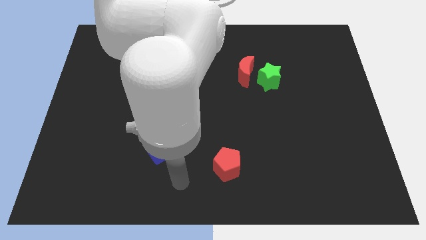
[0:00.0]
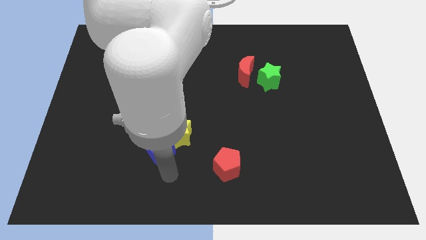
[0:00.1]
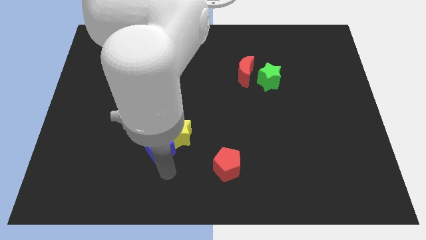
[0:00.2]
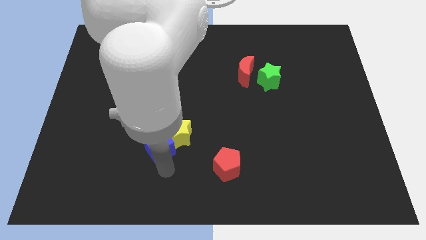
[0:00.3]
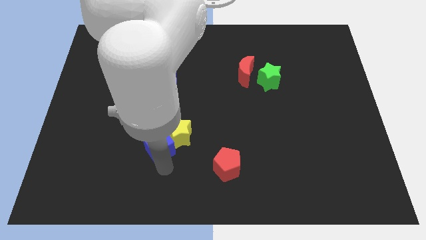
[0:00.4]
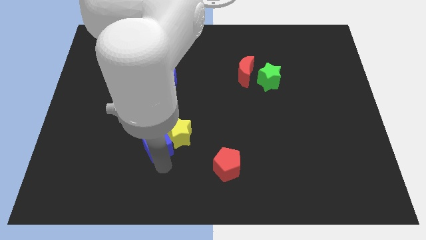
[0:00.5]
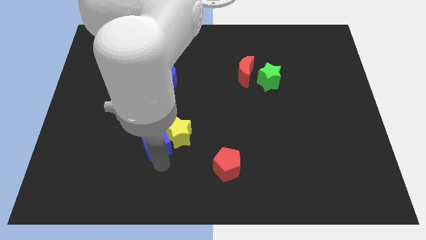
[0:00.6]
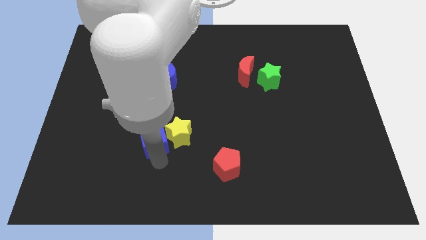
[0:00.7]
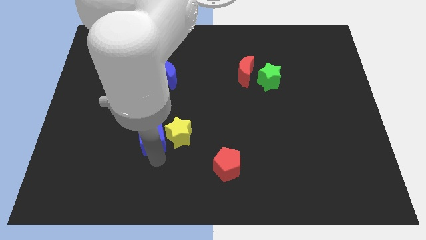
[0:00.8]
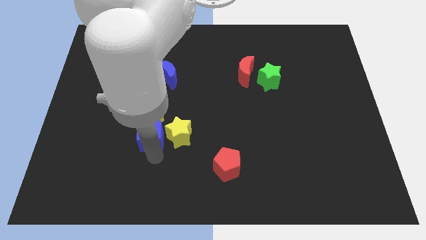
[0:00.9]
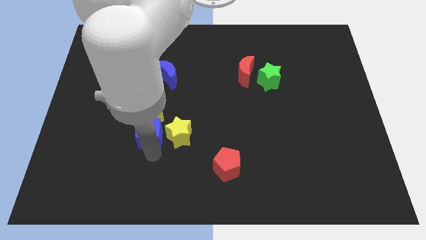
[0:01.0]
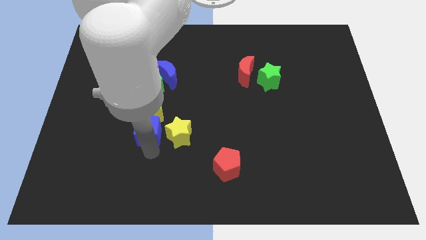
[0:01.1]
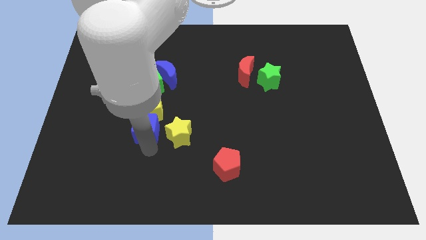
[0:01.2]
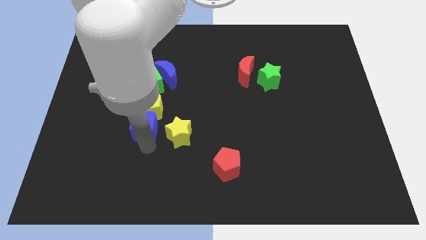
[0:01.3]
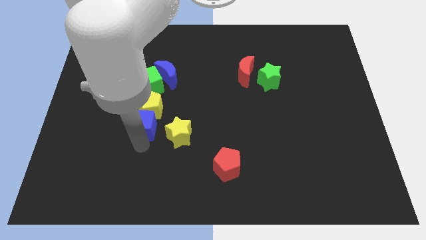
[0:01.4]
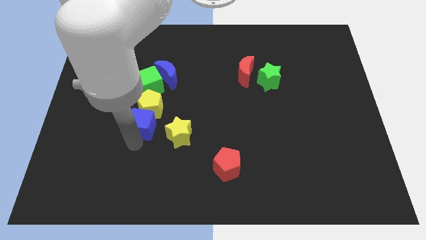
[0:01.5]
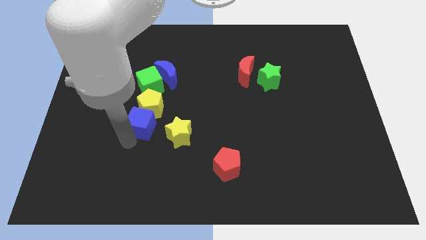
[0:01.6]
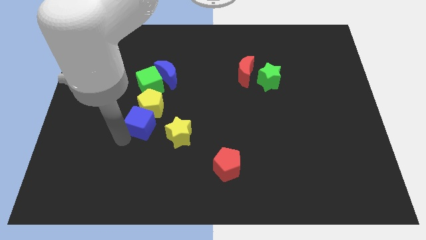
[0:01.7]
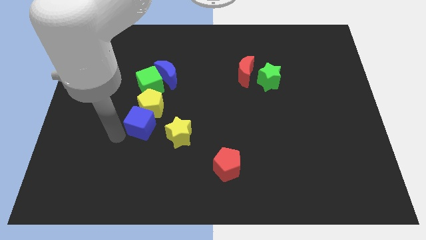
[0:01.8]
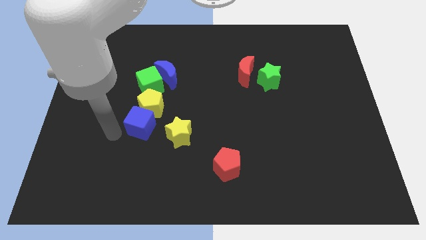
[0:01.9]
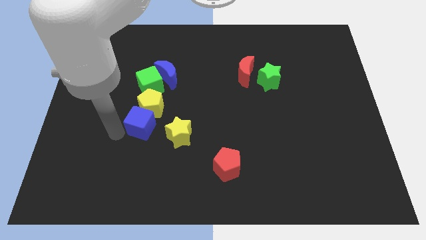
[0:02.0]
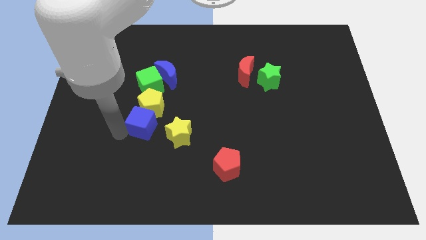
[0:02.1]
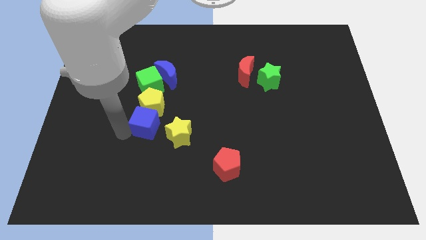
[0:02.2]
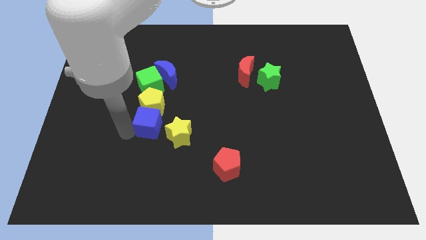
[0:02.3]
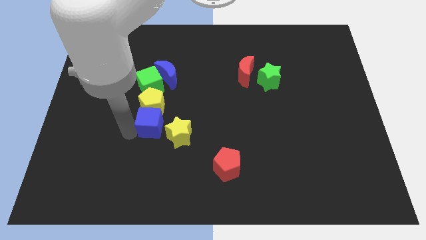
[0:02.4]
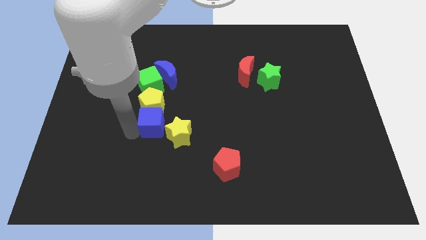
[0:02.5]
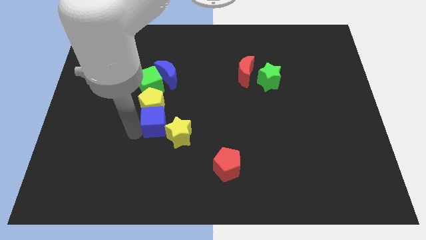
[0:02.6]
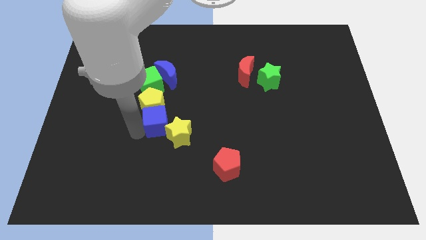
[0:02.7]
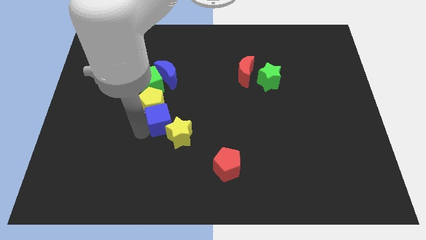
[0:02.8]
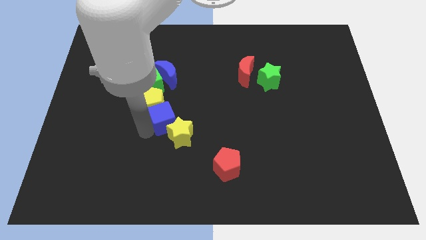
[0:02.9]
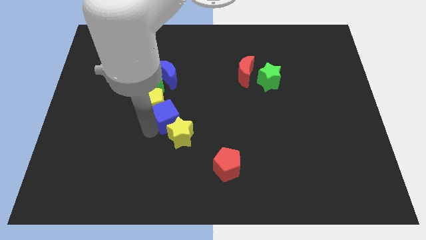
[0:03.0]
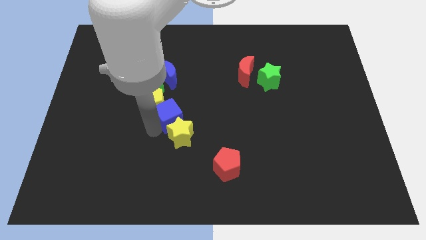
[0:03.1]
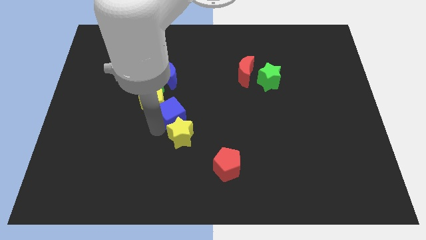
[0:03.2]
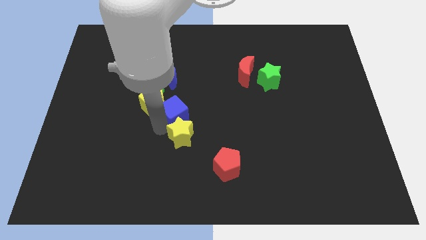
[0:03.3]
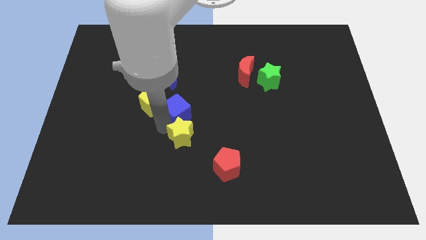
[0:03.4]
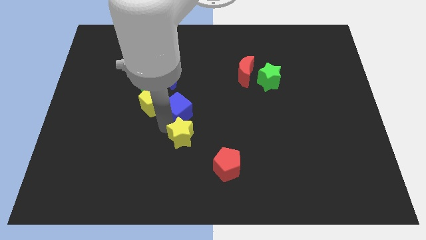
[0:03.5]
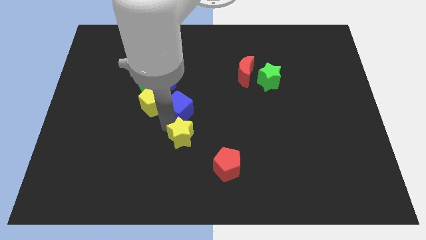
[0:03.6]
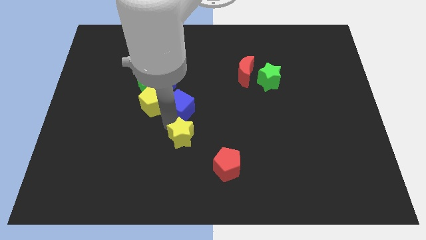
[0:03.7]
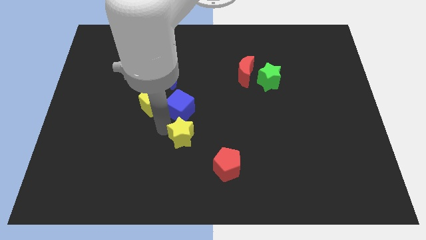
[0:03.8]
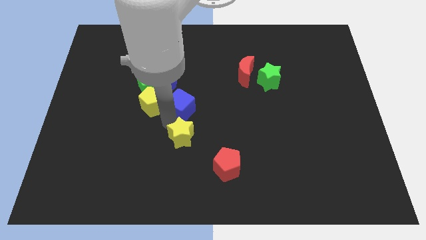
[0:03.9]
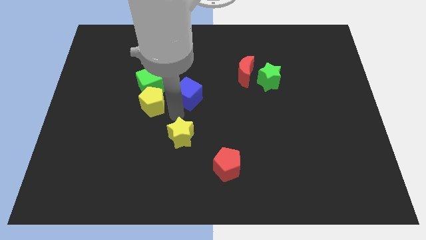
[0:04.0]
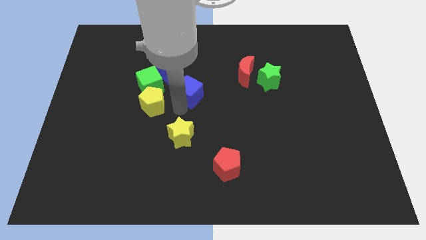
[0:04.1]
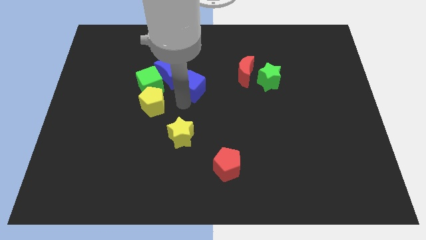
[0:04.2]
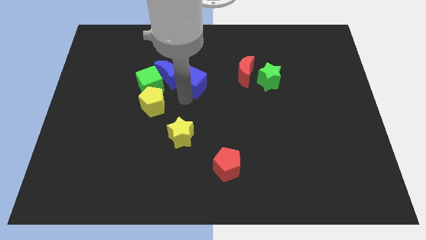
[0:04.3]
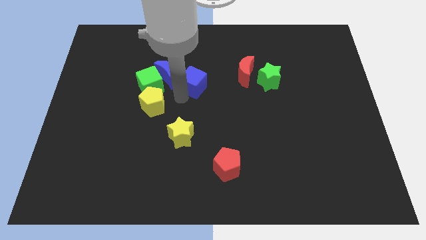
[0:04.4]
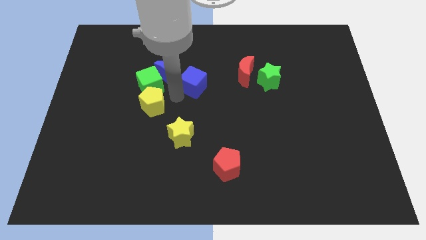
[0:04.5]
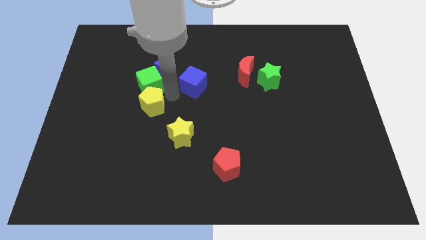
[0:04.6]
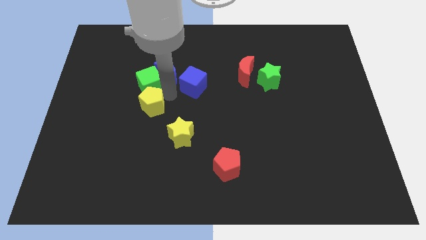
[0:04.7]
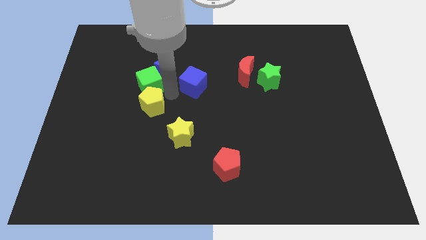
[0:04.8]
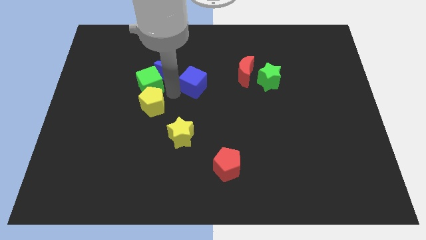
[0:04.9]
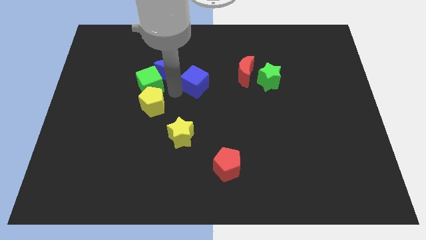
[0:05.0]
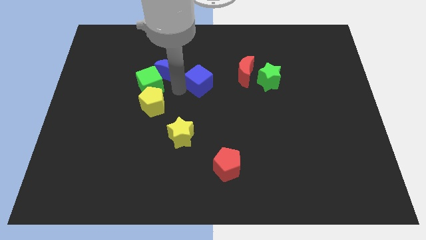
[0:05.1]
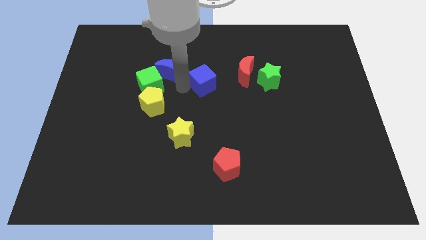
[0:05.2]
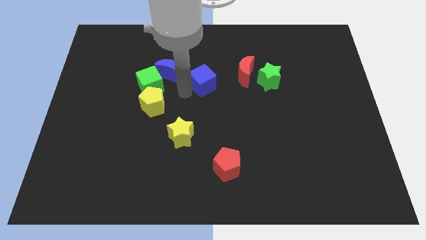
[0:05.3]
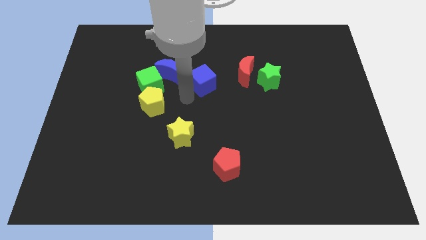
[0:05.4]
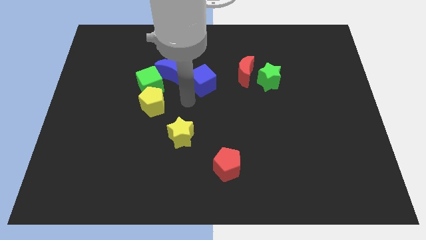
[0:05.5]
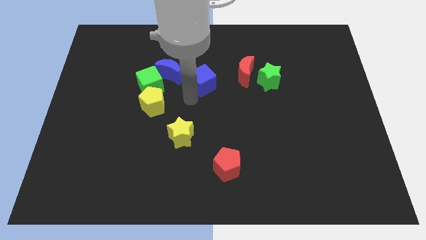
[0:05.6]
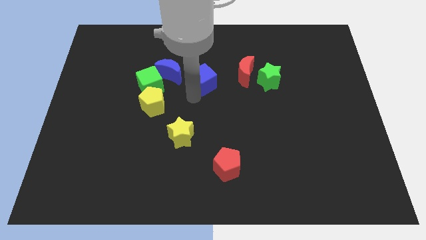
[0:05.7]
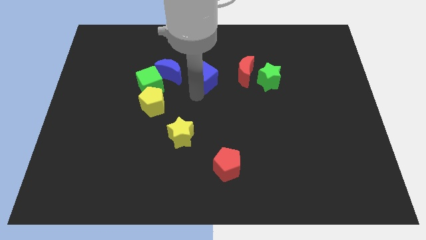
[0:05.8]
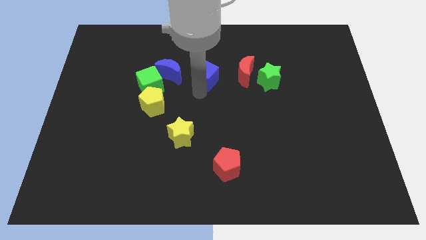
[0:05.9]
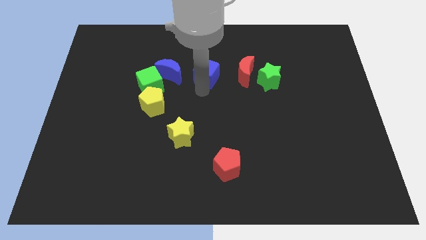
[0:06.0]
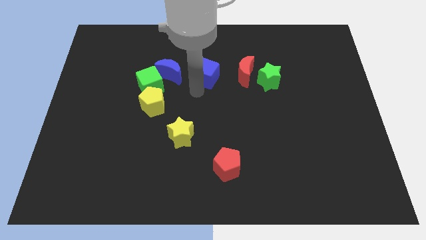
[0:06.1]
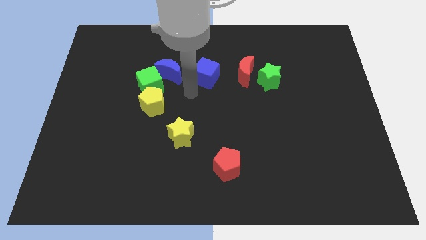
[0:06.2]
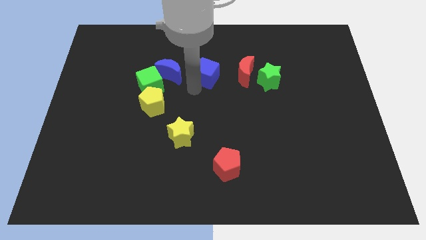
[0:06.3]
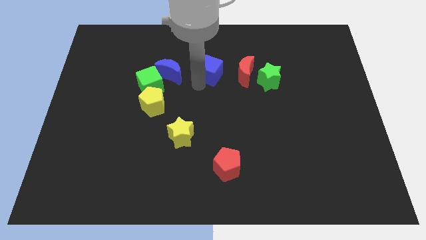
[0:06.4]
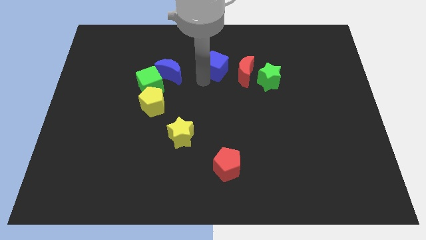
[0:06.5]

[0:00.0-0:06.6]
move the blue cube to the top left of the red moon

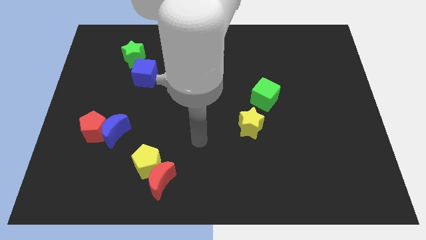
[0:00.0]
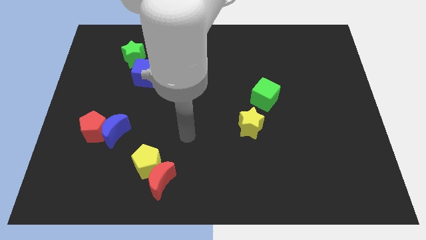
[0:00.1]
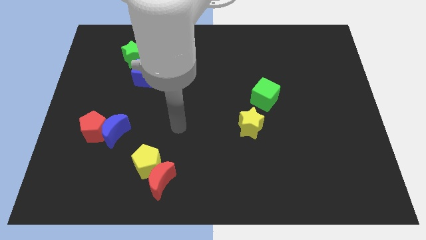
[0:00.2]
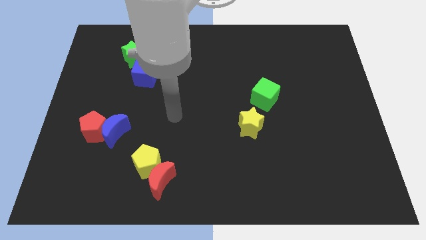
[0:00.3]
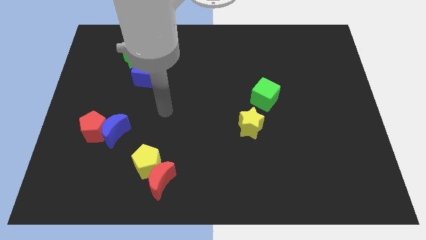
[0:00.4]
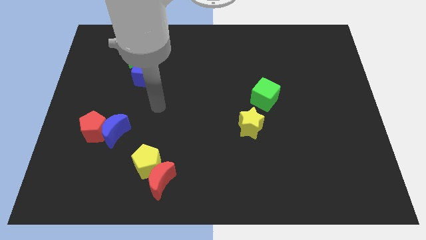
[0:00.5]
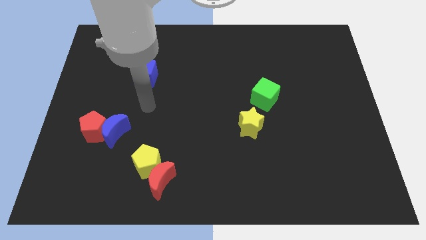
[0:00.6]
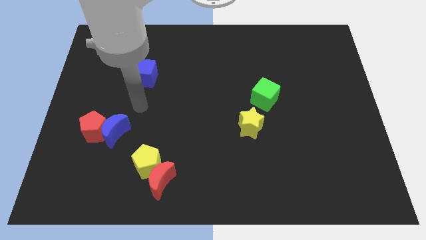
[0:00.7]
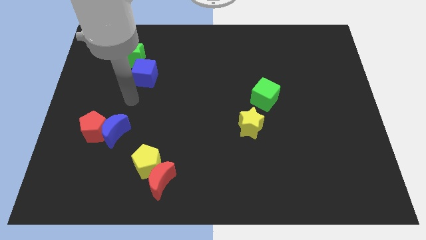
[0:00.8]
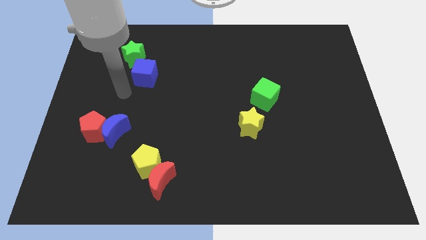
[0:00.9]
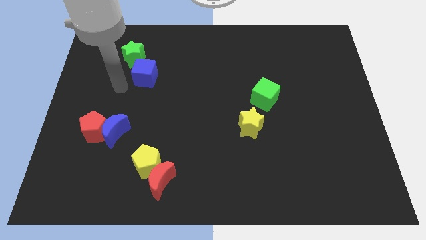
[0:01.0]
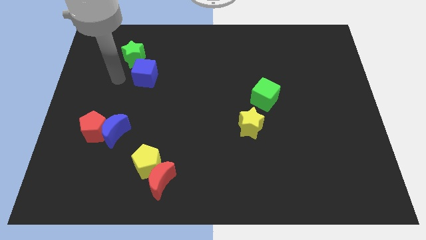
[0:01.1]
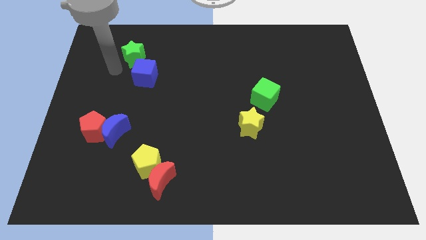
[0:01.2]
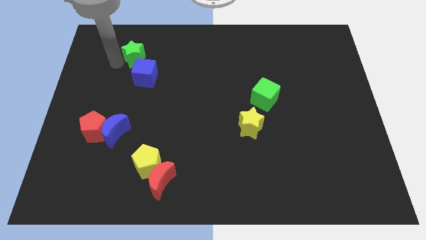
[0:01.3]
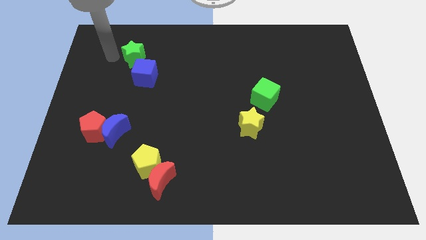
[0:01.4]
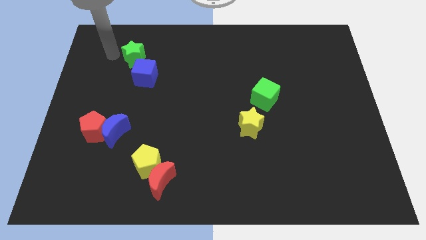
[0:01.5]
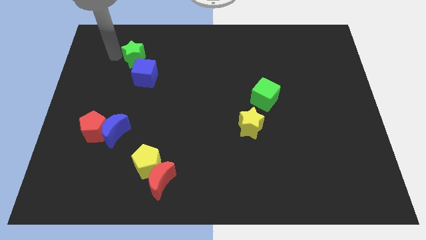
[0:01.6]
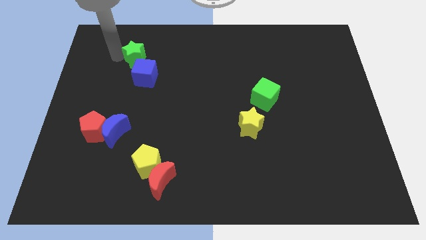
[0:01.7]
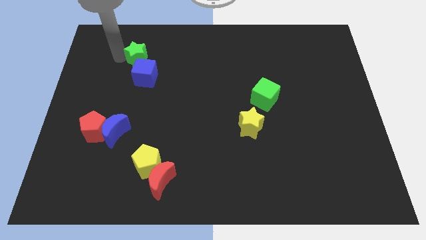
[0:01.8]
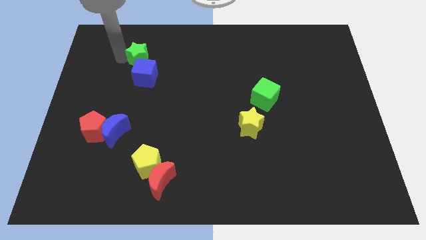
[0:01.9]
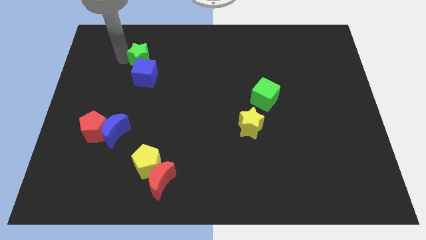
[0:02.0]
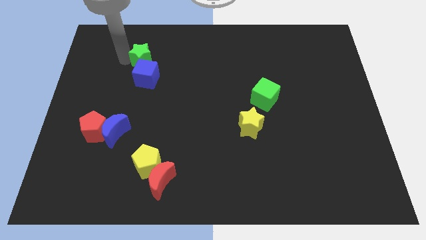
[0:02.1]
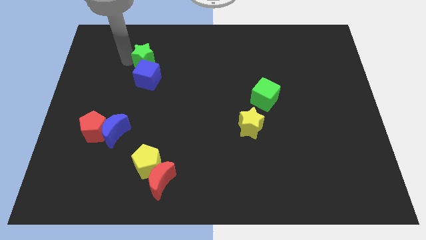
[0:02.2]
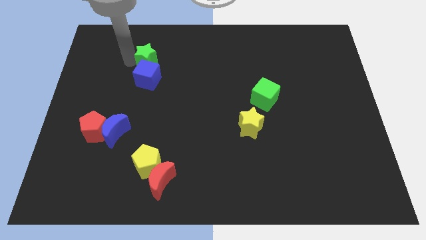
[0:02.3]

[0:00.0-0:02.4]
put the green star to the top right of the blue cube
